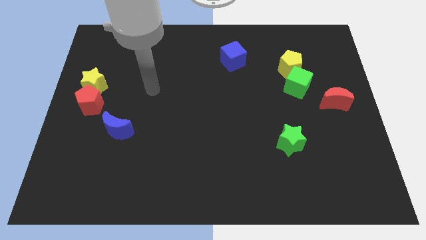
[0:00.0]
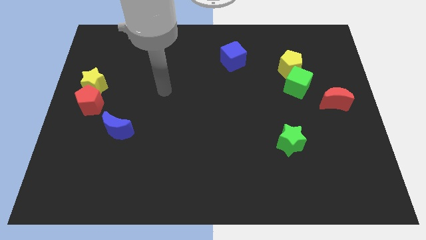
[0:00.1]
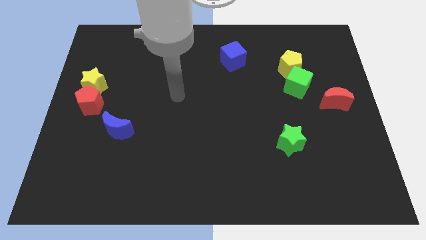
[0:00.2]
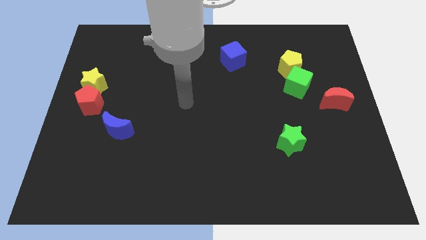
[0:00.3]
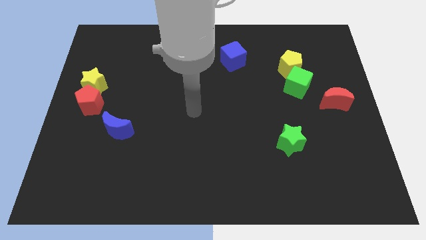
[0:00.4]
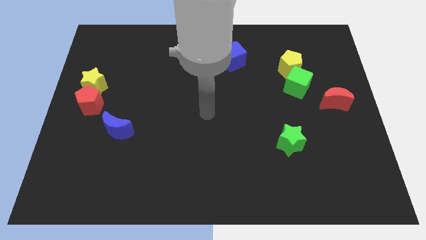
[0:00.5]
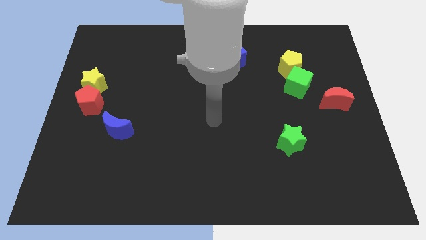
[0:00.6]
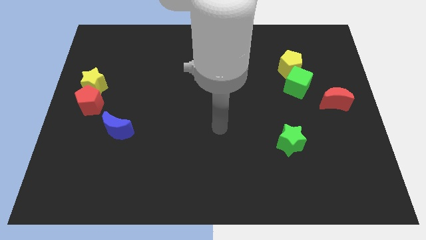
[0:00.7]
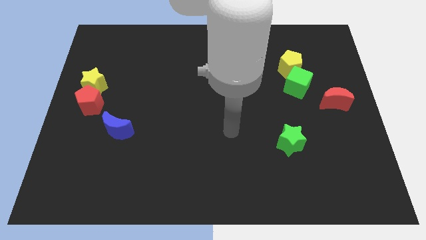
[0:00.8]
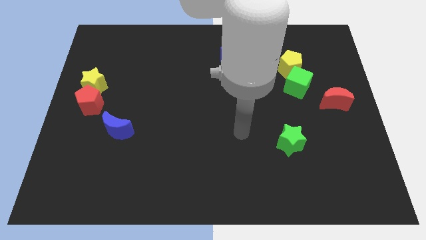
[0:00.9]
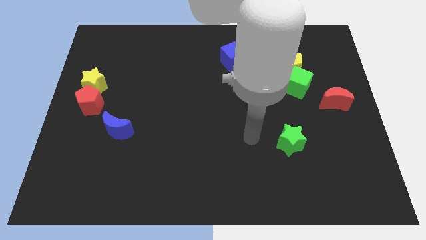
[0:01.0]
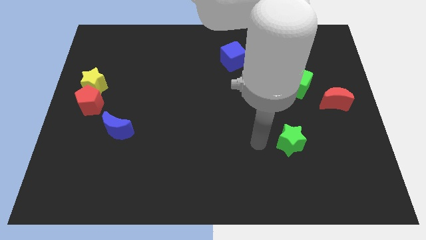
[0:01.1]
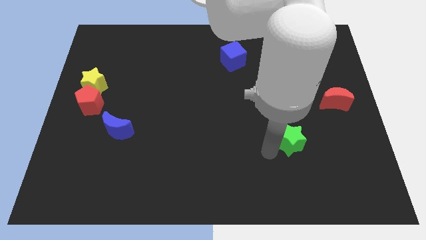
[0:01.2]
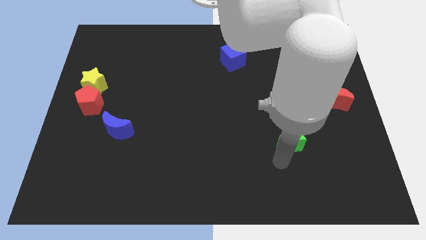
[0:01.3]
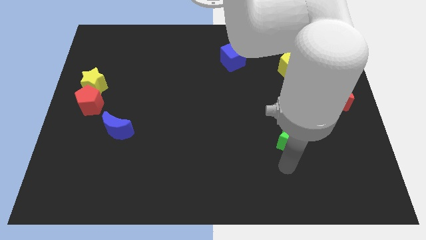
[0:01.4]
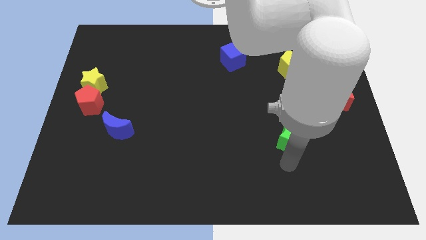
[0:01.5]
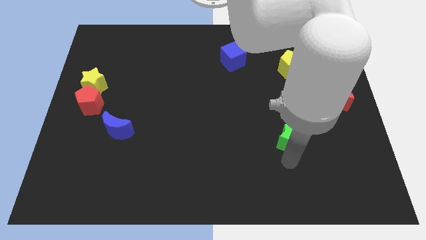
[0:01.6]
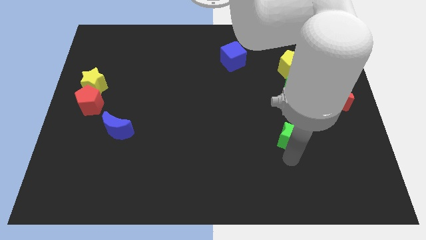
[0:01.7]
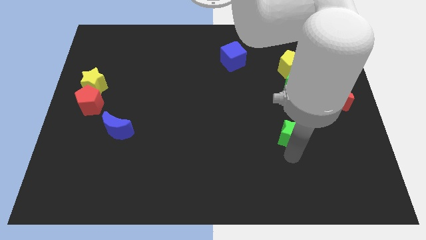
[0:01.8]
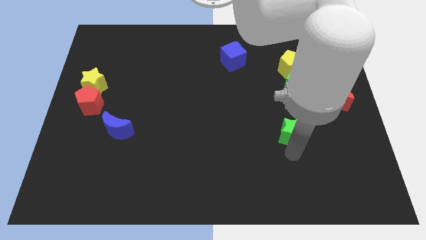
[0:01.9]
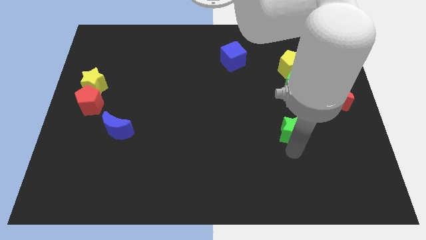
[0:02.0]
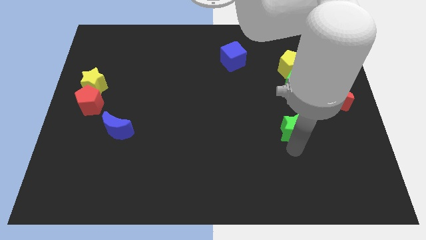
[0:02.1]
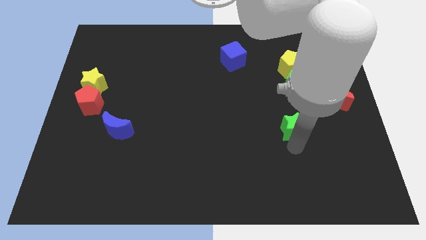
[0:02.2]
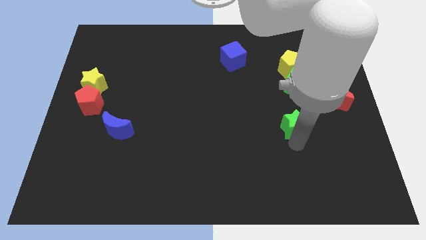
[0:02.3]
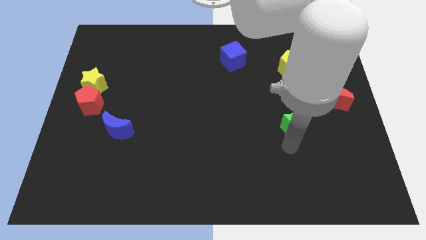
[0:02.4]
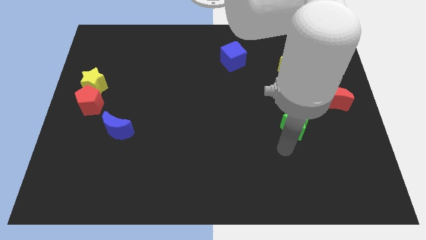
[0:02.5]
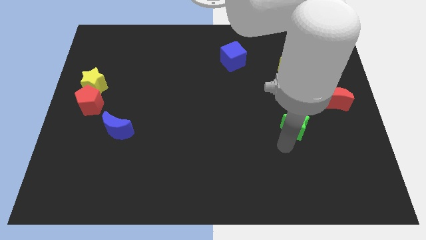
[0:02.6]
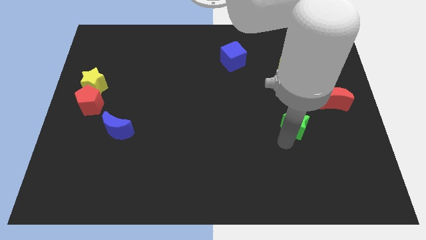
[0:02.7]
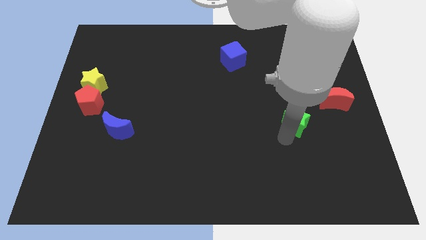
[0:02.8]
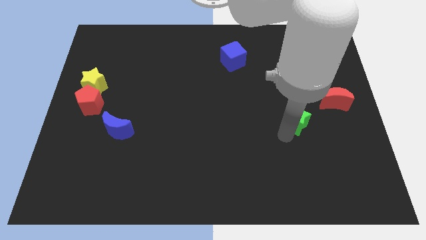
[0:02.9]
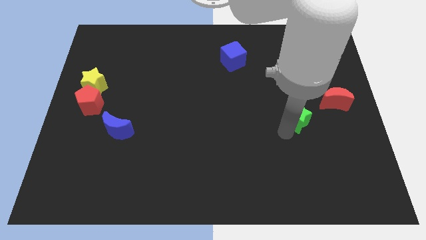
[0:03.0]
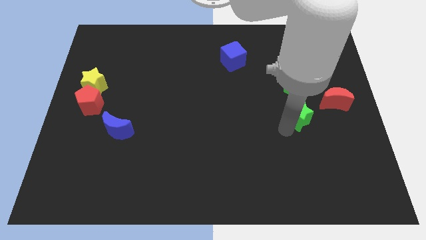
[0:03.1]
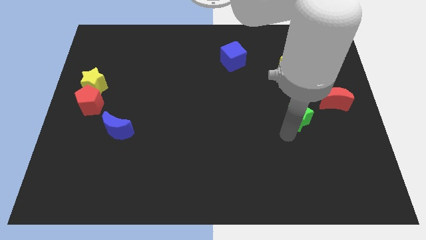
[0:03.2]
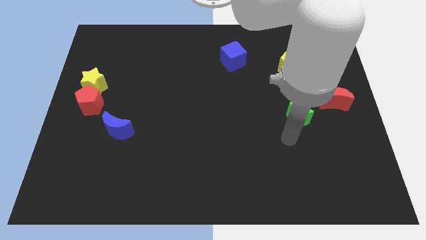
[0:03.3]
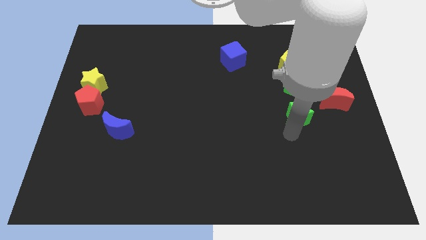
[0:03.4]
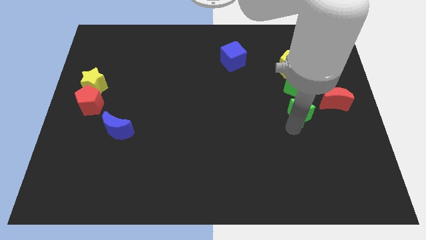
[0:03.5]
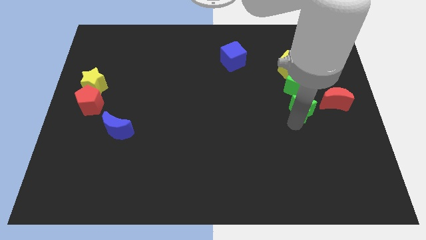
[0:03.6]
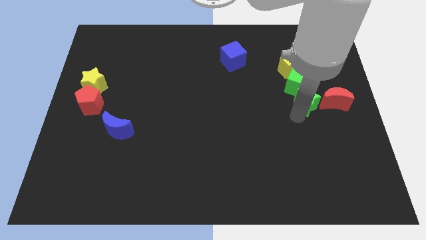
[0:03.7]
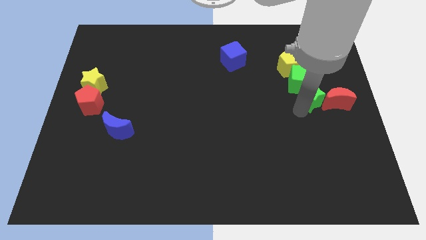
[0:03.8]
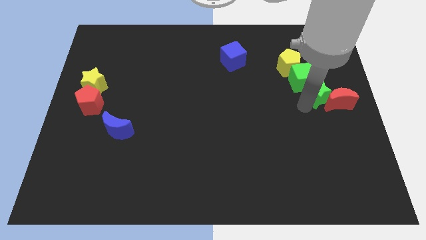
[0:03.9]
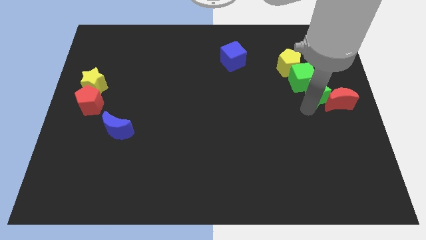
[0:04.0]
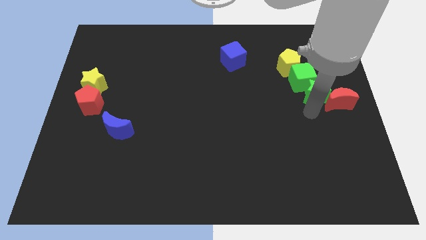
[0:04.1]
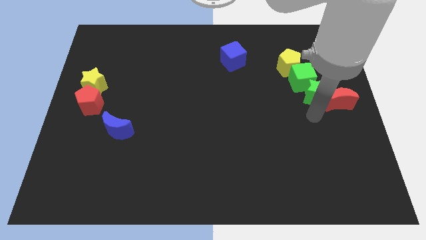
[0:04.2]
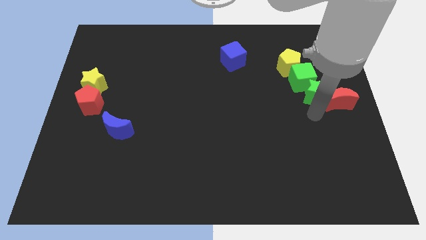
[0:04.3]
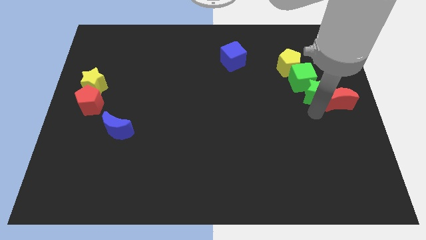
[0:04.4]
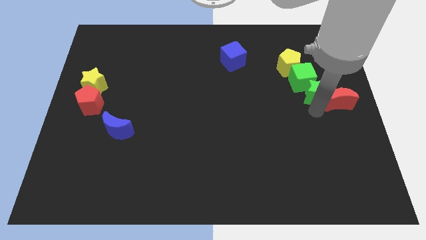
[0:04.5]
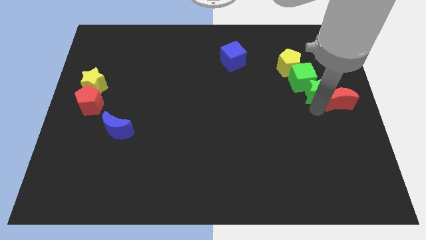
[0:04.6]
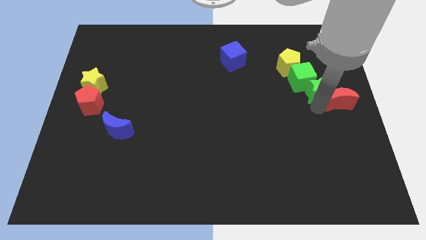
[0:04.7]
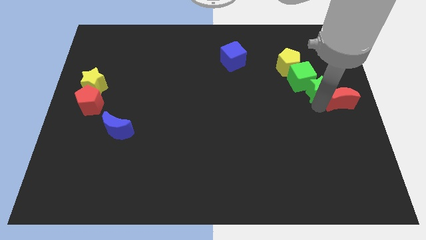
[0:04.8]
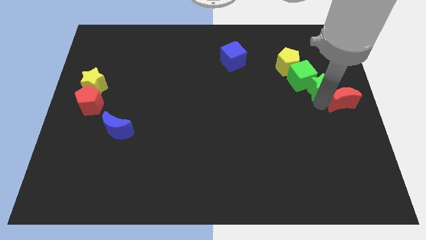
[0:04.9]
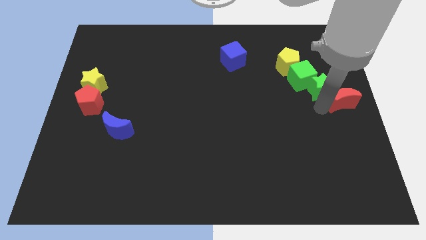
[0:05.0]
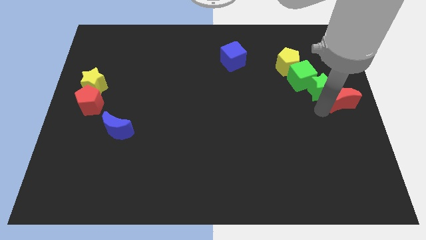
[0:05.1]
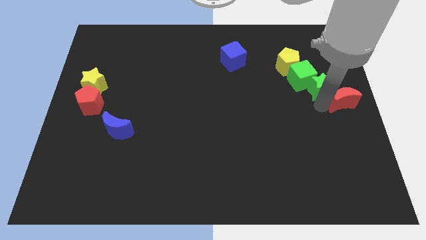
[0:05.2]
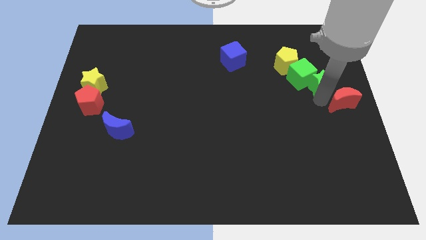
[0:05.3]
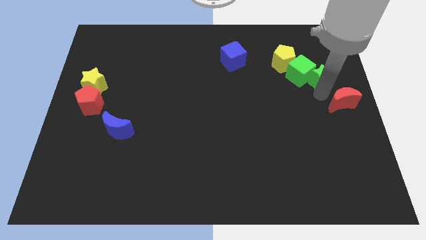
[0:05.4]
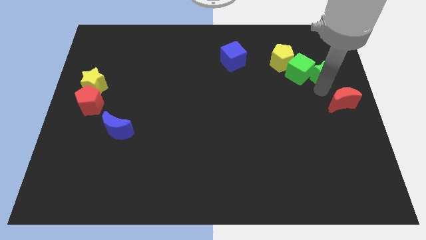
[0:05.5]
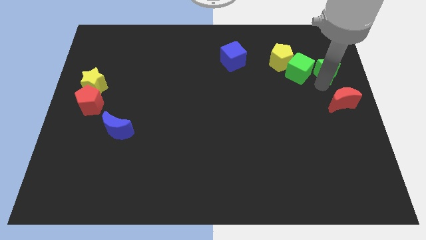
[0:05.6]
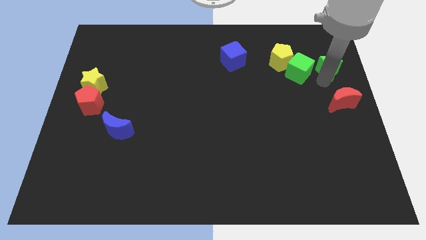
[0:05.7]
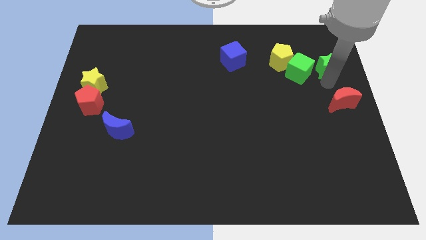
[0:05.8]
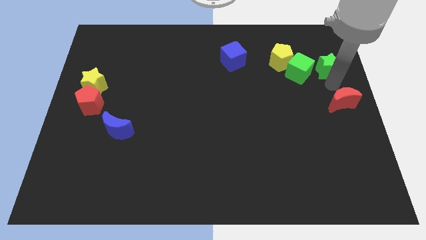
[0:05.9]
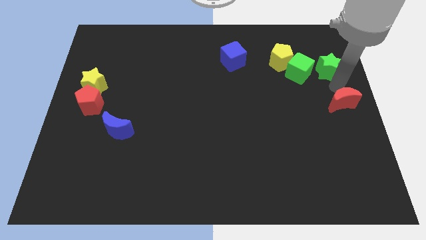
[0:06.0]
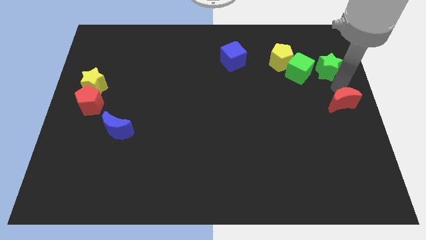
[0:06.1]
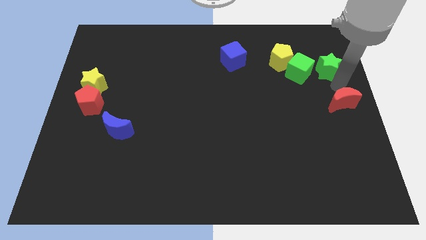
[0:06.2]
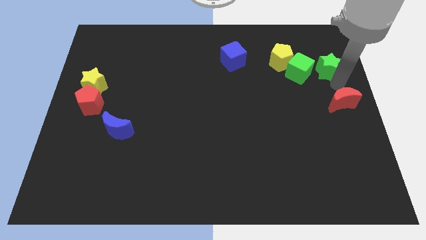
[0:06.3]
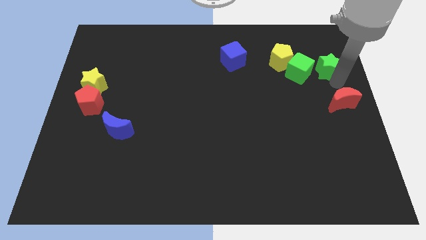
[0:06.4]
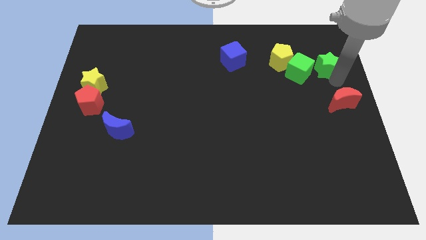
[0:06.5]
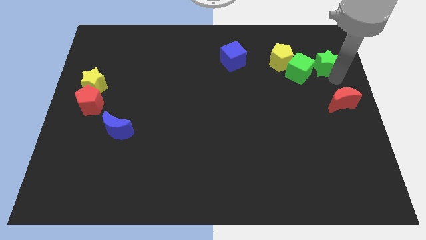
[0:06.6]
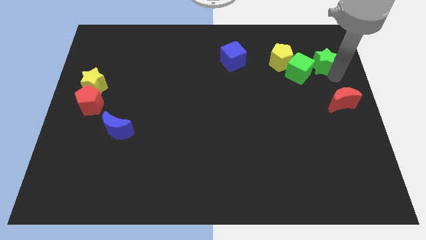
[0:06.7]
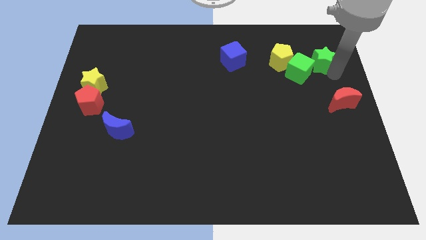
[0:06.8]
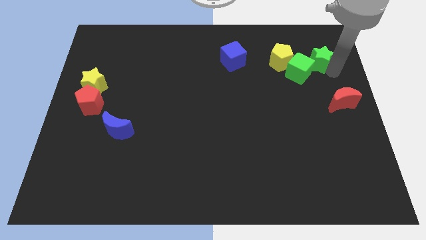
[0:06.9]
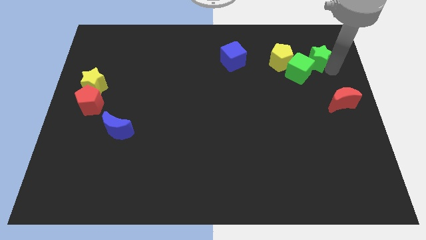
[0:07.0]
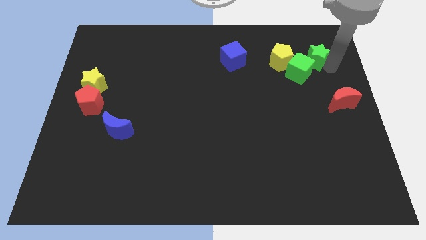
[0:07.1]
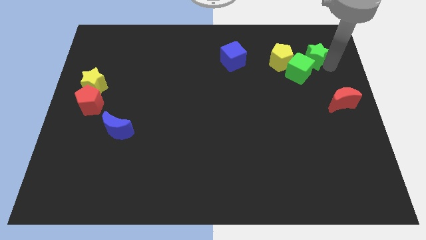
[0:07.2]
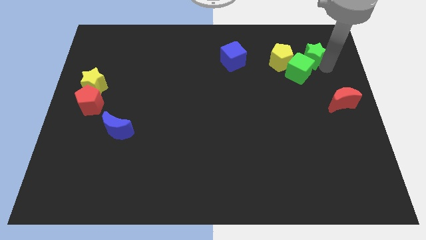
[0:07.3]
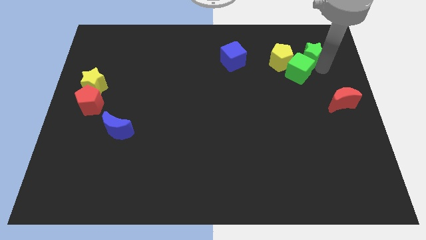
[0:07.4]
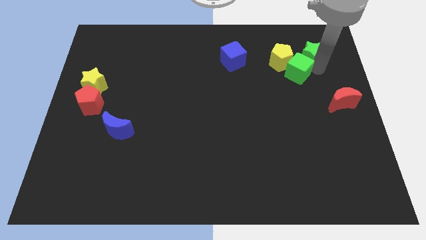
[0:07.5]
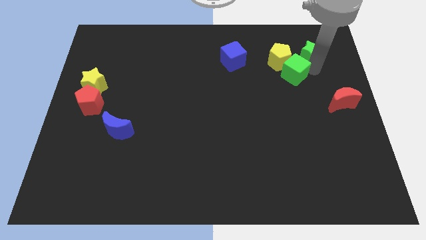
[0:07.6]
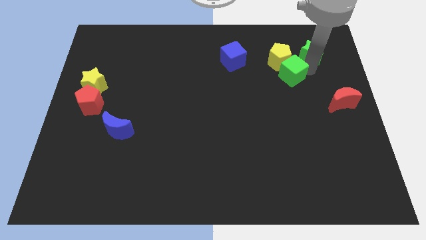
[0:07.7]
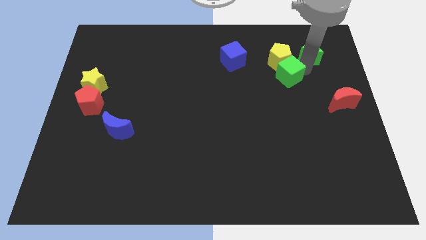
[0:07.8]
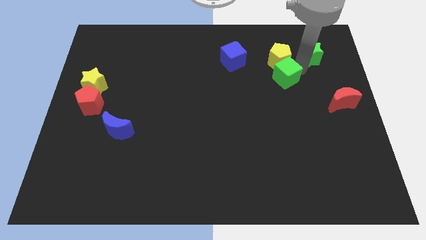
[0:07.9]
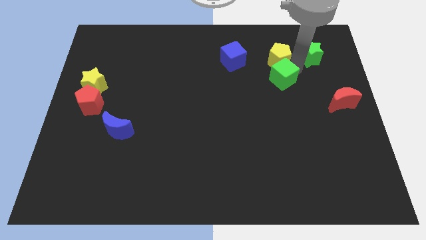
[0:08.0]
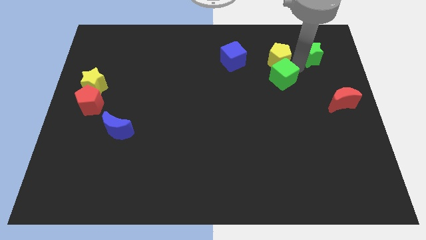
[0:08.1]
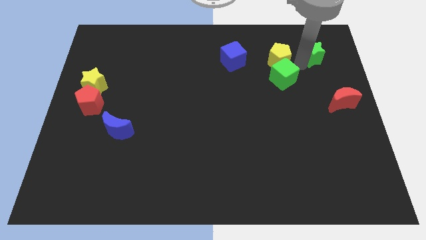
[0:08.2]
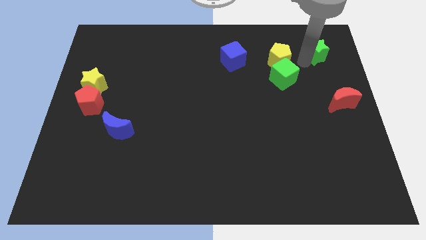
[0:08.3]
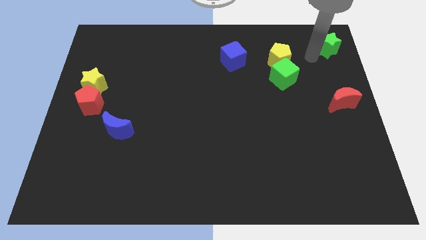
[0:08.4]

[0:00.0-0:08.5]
put the green star to the top right corner
